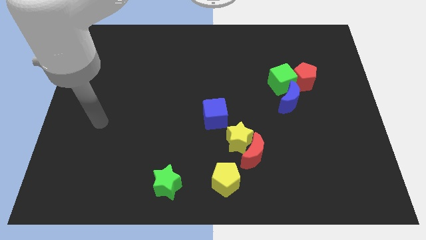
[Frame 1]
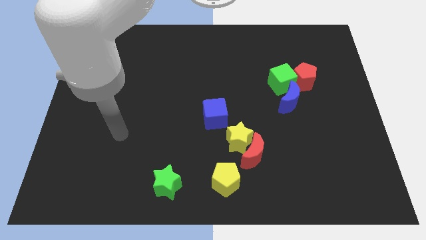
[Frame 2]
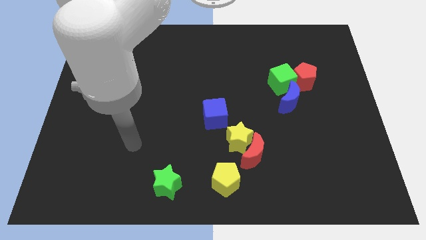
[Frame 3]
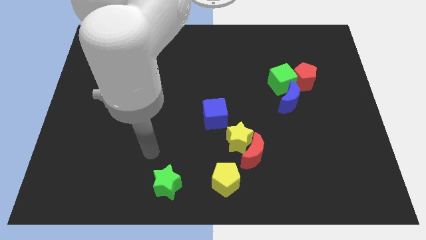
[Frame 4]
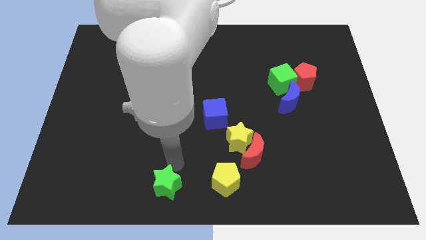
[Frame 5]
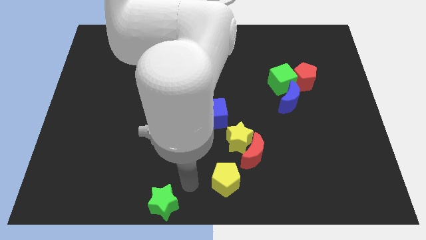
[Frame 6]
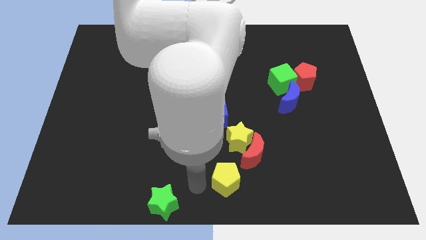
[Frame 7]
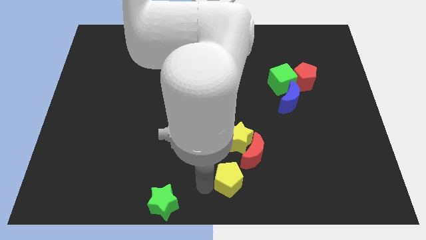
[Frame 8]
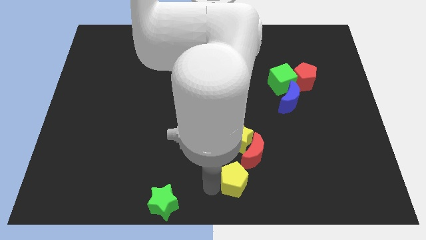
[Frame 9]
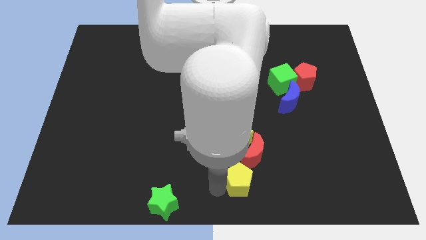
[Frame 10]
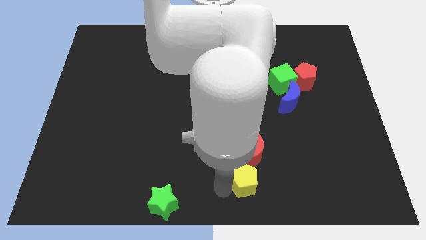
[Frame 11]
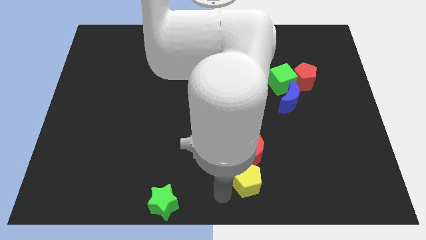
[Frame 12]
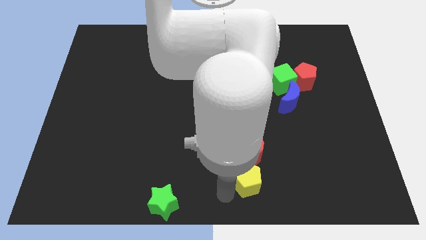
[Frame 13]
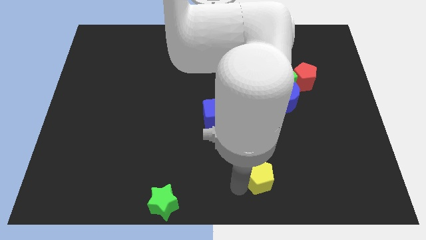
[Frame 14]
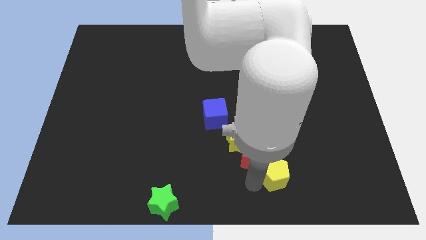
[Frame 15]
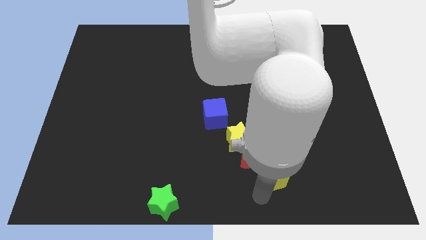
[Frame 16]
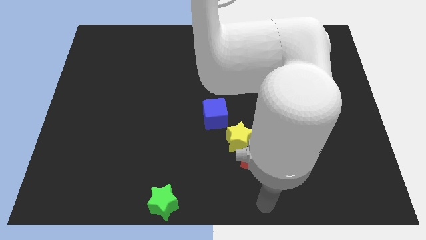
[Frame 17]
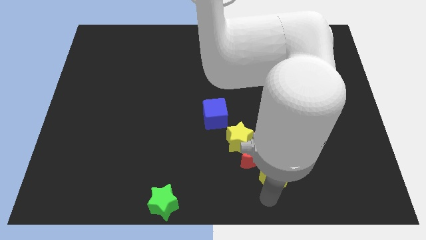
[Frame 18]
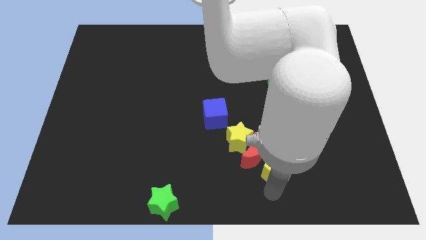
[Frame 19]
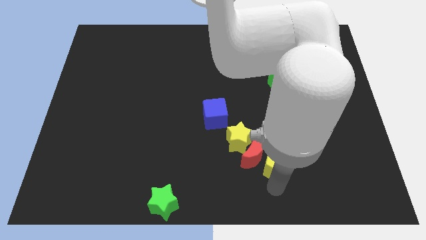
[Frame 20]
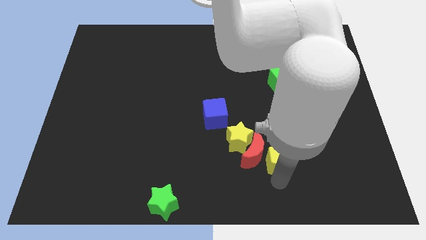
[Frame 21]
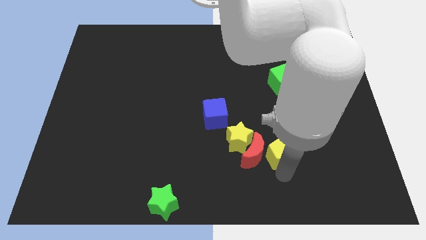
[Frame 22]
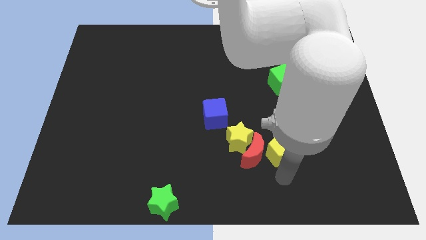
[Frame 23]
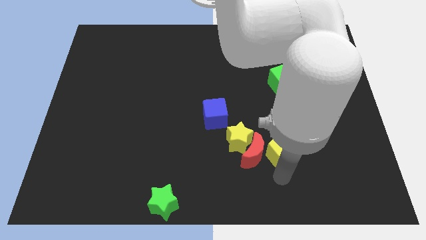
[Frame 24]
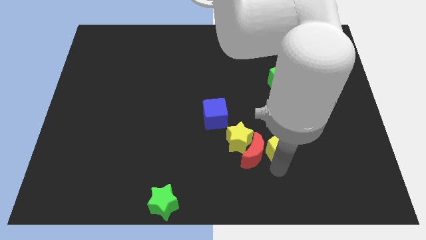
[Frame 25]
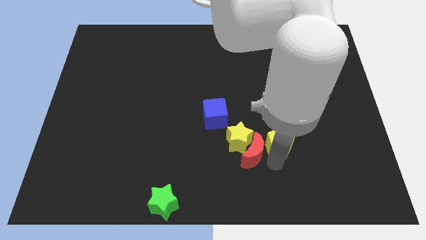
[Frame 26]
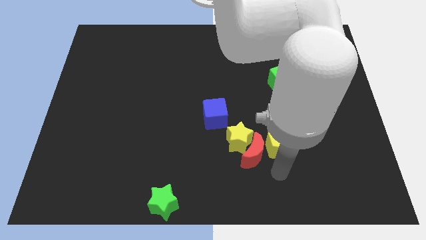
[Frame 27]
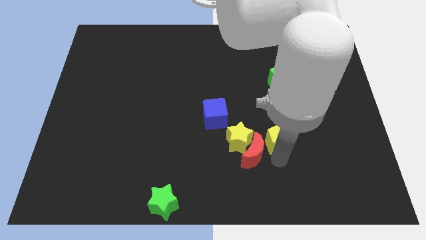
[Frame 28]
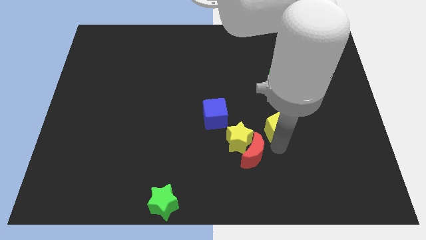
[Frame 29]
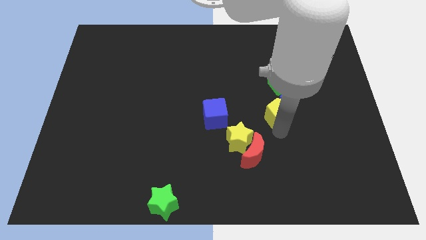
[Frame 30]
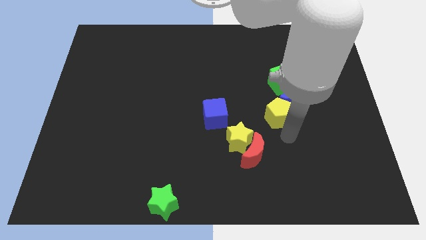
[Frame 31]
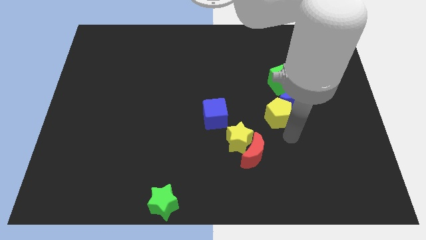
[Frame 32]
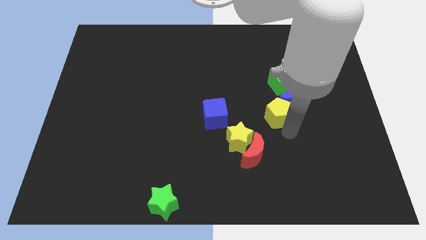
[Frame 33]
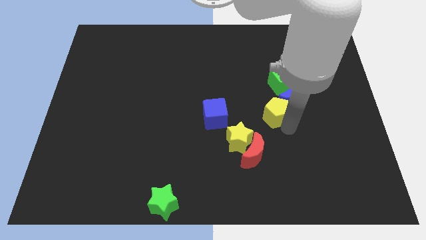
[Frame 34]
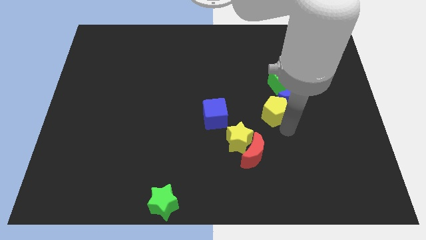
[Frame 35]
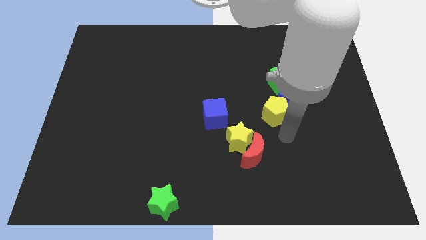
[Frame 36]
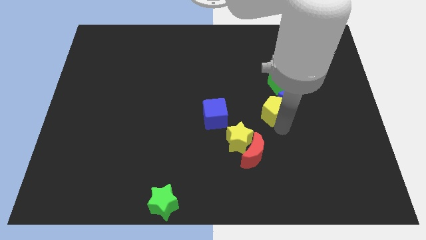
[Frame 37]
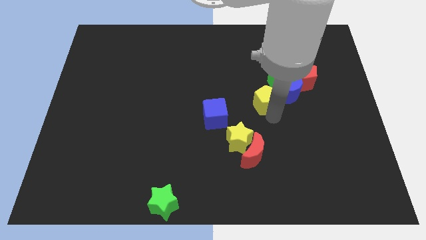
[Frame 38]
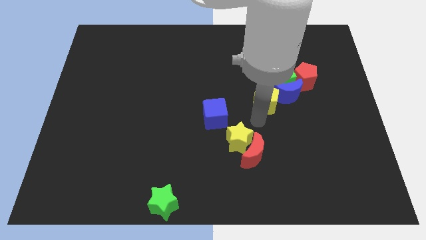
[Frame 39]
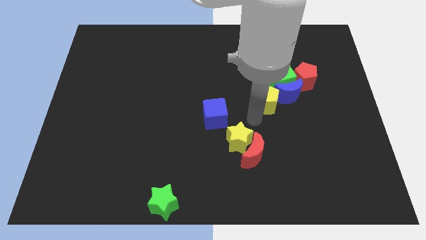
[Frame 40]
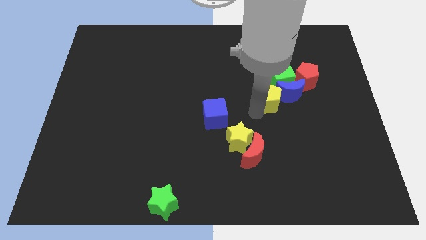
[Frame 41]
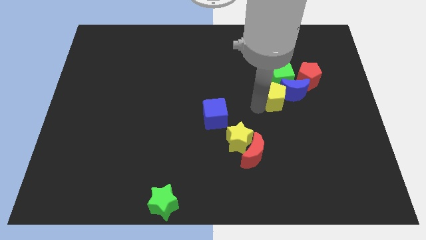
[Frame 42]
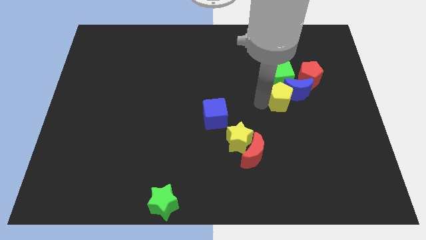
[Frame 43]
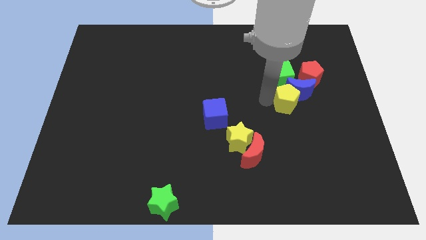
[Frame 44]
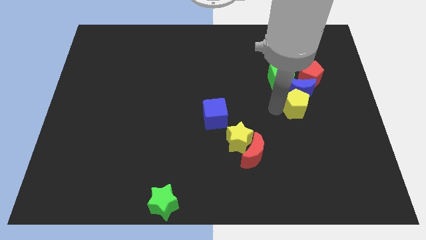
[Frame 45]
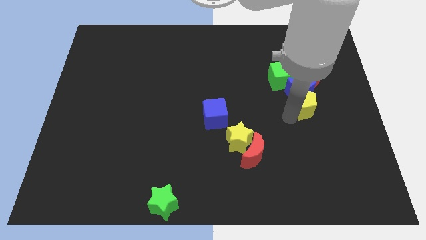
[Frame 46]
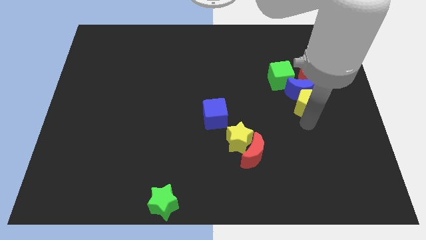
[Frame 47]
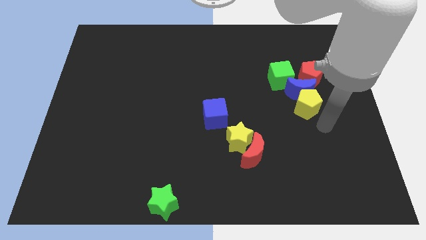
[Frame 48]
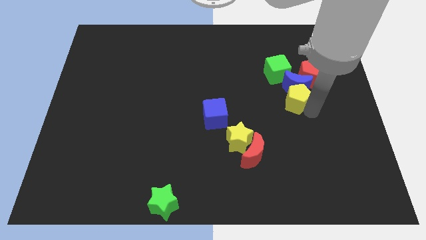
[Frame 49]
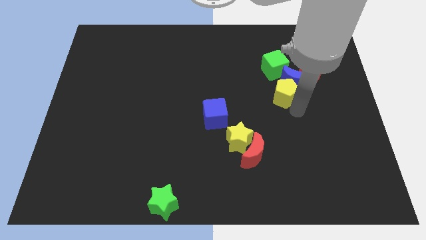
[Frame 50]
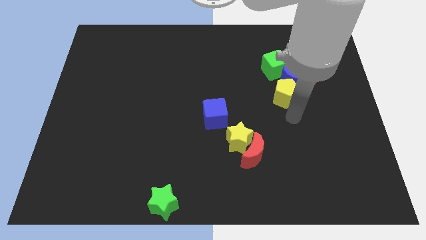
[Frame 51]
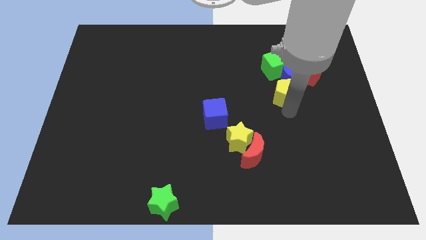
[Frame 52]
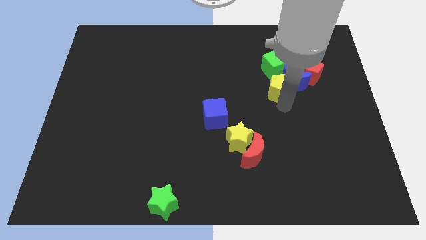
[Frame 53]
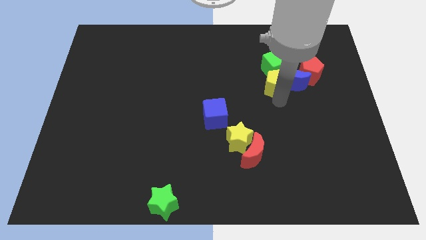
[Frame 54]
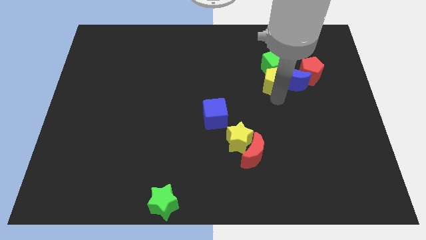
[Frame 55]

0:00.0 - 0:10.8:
slide the yellow pentagon towards the green cube

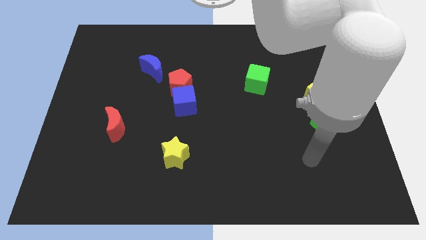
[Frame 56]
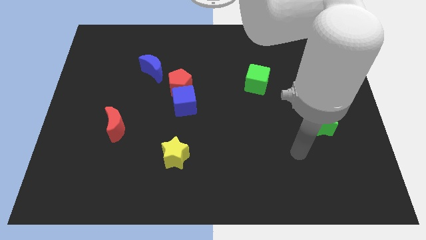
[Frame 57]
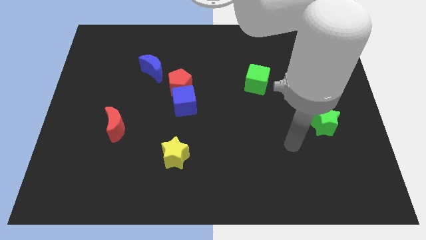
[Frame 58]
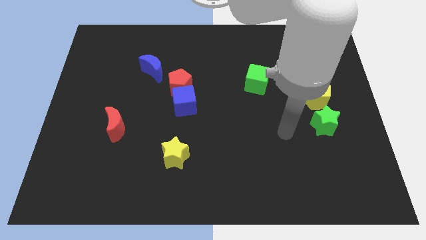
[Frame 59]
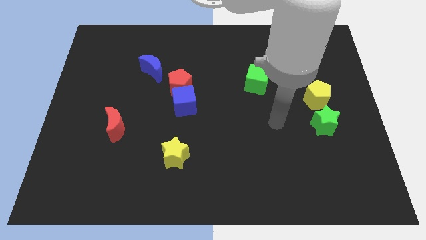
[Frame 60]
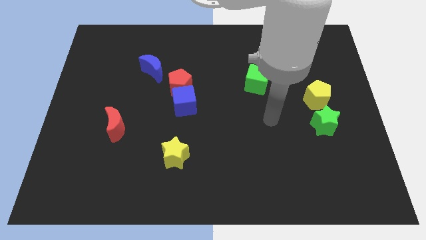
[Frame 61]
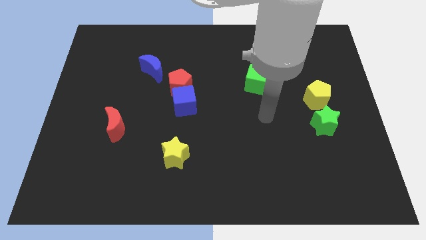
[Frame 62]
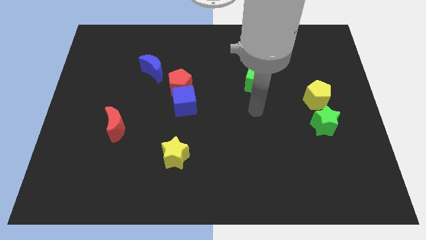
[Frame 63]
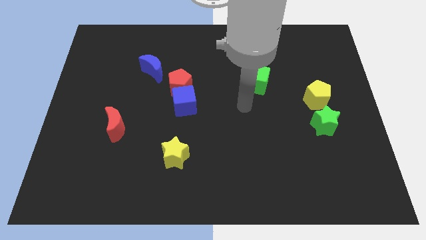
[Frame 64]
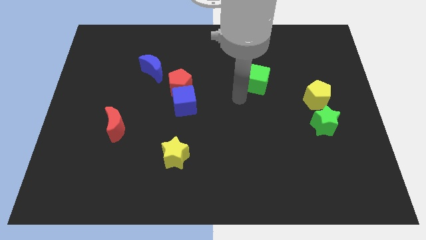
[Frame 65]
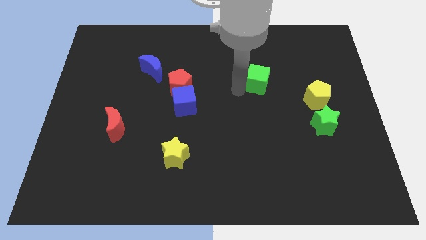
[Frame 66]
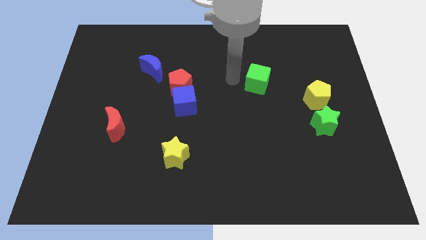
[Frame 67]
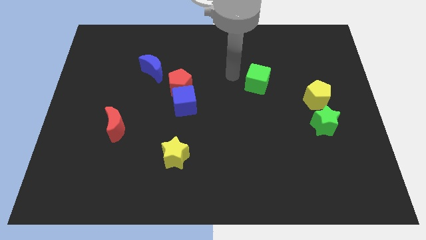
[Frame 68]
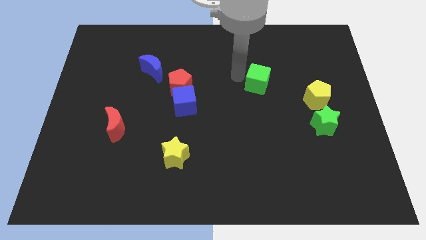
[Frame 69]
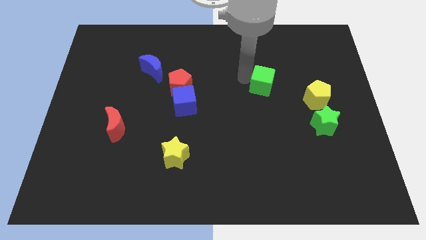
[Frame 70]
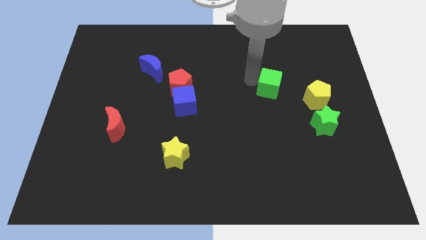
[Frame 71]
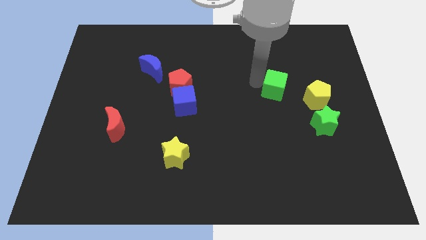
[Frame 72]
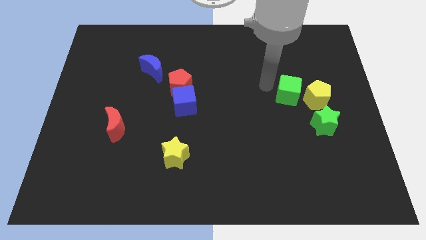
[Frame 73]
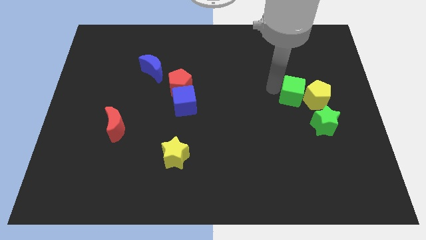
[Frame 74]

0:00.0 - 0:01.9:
push the green cube to the yellow pentagon
